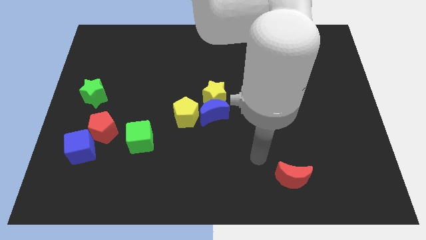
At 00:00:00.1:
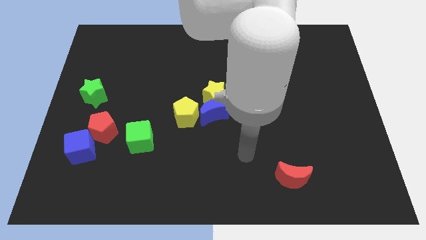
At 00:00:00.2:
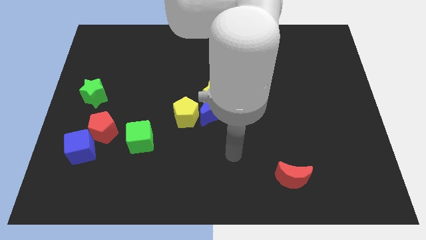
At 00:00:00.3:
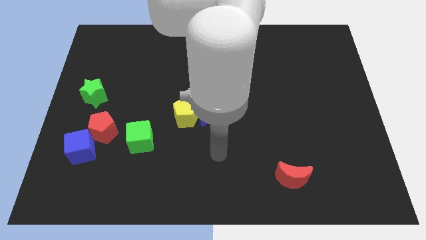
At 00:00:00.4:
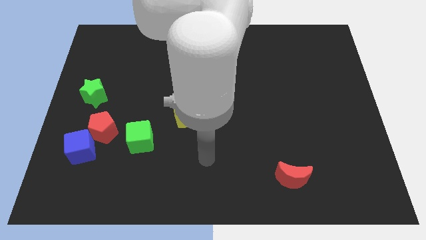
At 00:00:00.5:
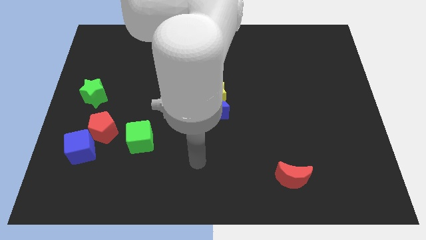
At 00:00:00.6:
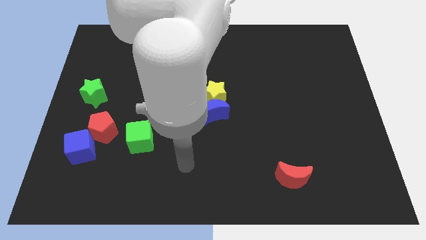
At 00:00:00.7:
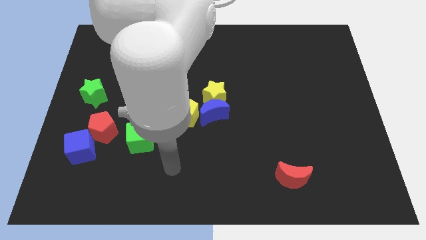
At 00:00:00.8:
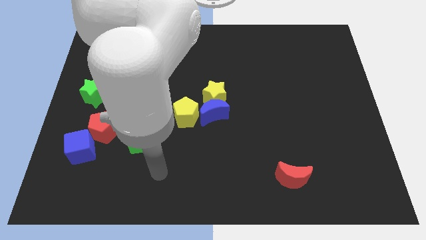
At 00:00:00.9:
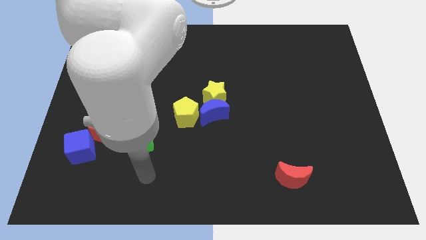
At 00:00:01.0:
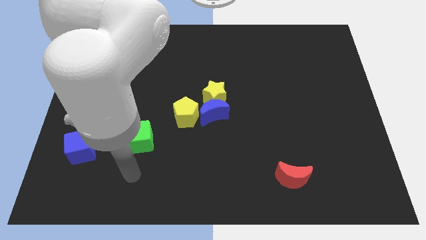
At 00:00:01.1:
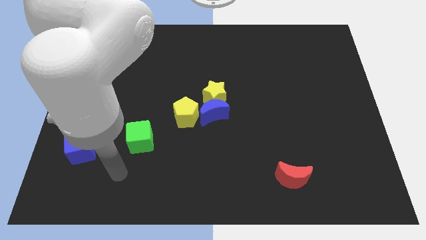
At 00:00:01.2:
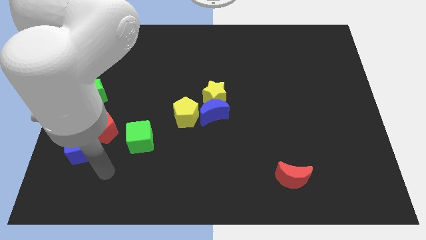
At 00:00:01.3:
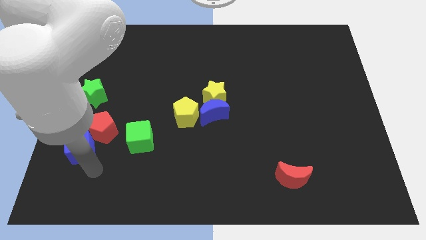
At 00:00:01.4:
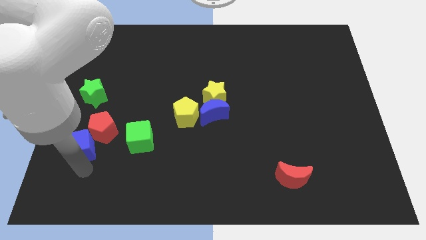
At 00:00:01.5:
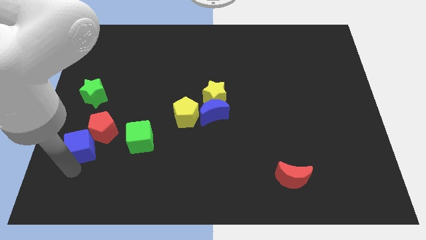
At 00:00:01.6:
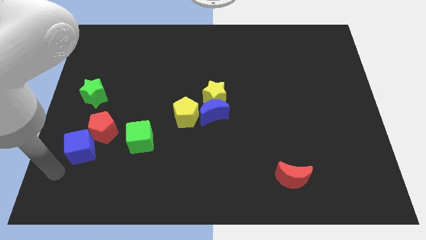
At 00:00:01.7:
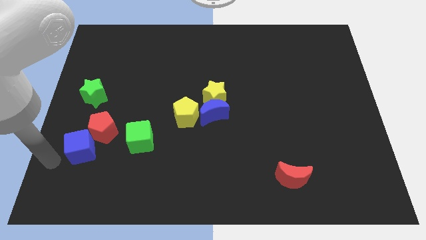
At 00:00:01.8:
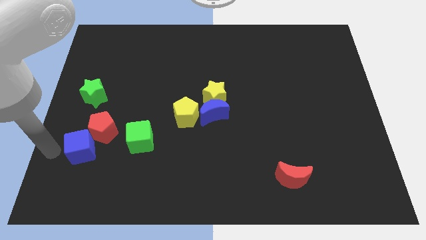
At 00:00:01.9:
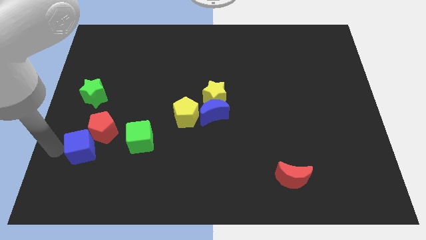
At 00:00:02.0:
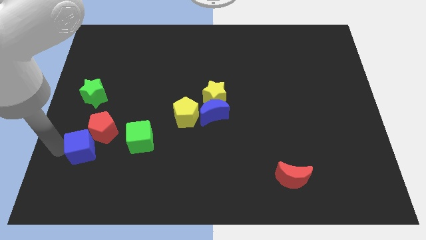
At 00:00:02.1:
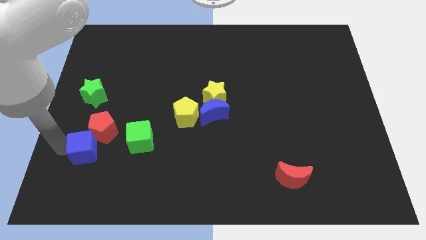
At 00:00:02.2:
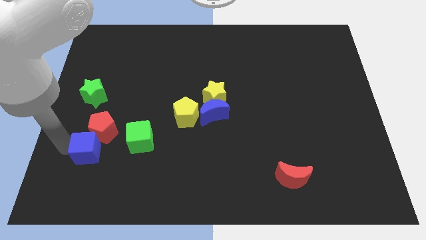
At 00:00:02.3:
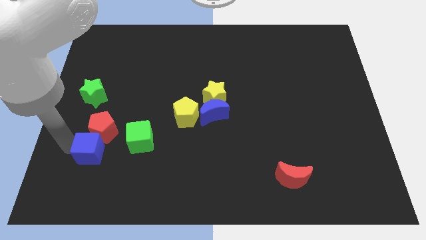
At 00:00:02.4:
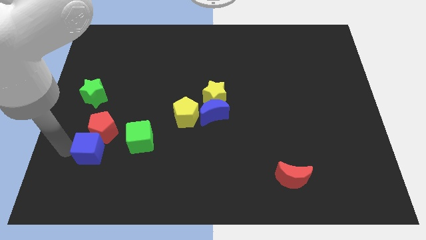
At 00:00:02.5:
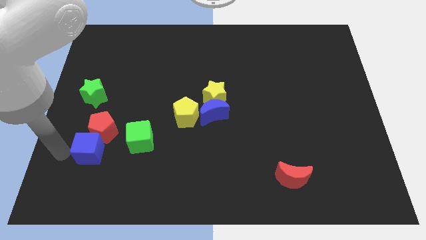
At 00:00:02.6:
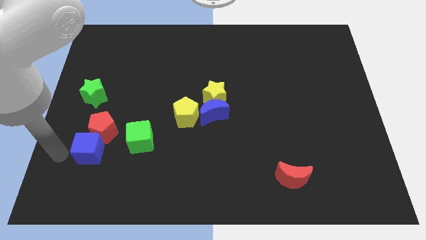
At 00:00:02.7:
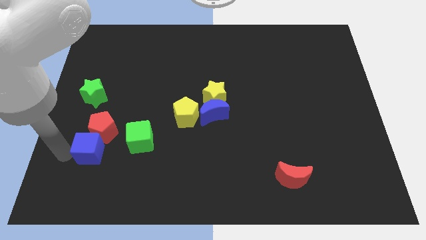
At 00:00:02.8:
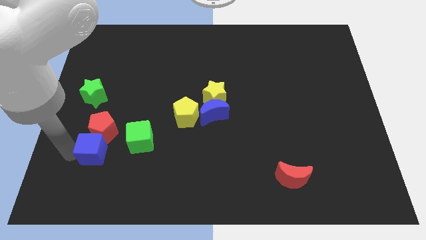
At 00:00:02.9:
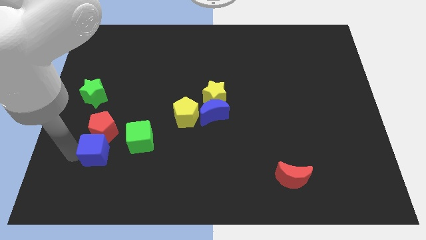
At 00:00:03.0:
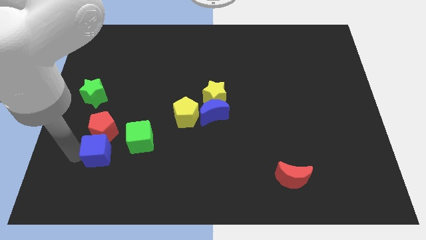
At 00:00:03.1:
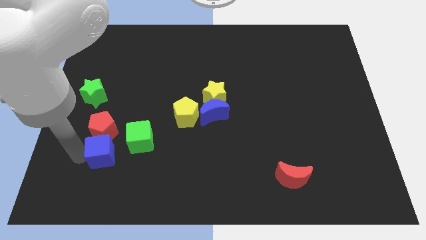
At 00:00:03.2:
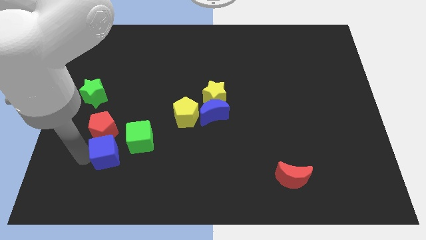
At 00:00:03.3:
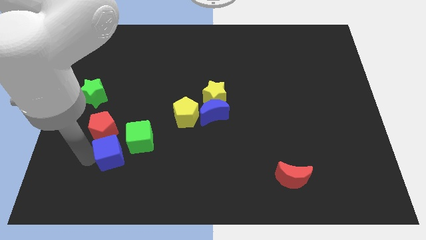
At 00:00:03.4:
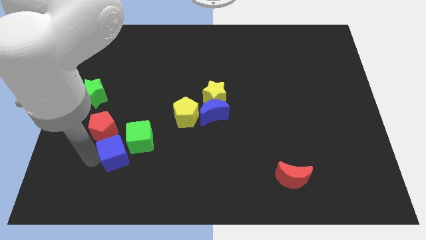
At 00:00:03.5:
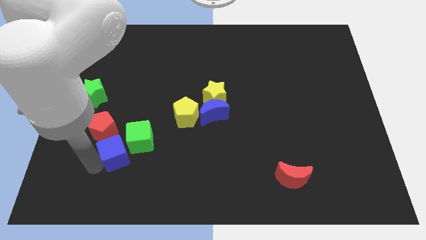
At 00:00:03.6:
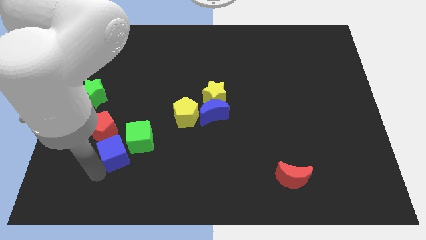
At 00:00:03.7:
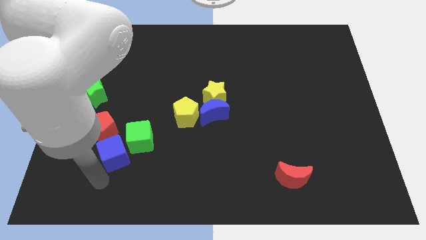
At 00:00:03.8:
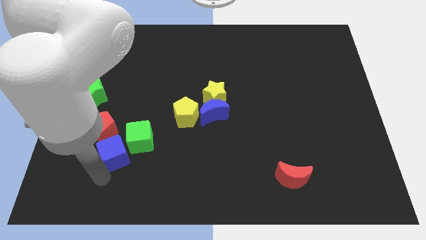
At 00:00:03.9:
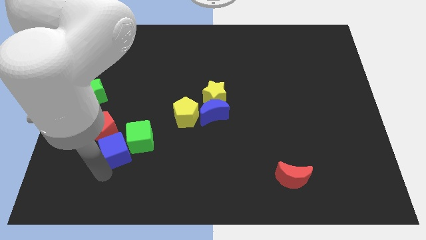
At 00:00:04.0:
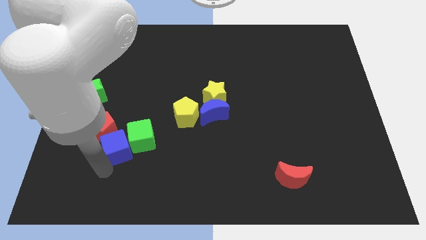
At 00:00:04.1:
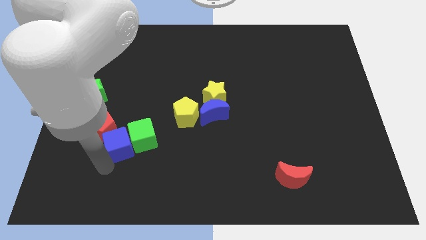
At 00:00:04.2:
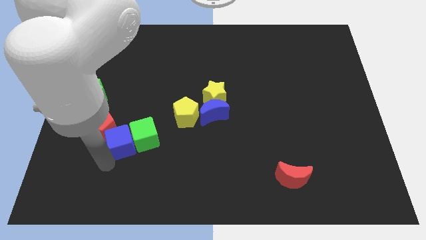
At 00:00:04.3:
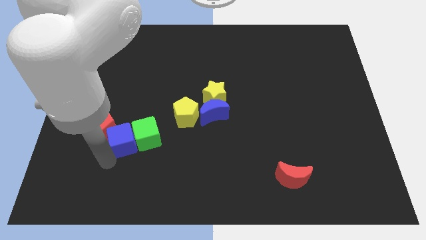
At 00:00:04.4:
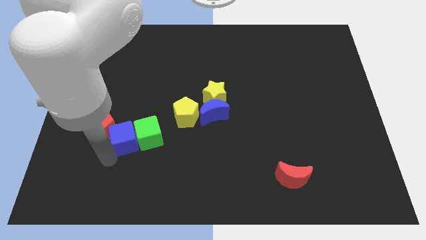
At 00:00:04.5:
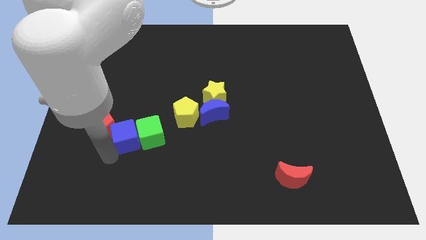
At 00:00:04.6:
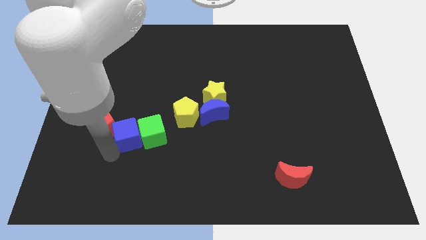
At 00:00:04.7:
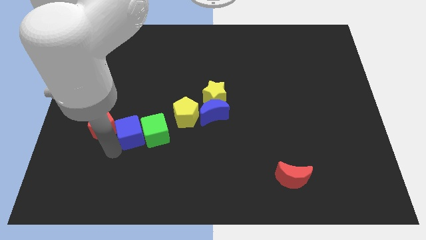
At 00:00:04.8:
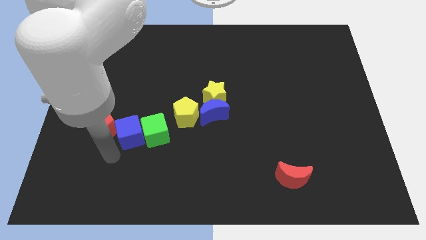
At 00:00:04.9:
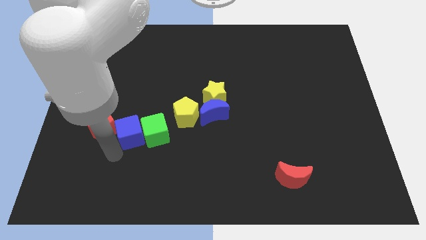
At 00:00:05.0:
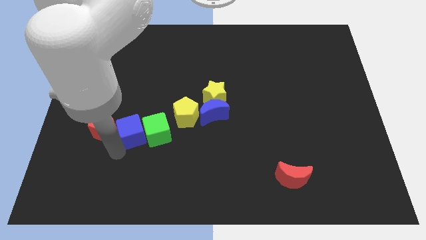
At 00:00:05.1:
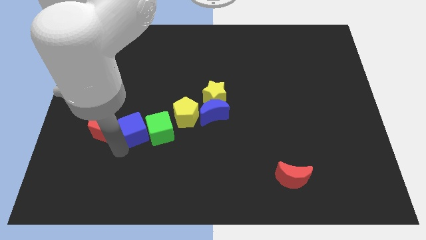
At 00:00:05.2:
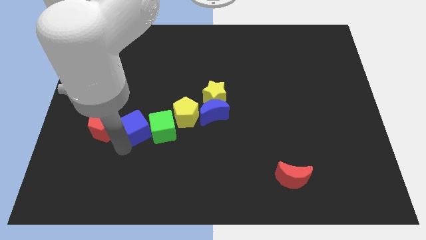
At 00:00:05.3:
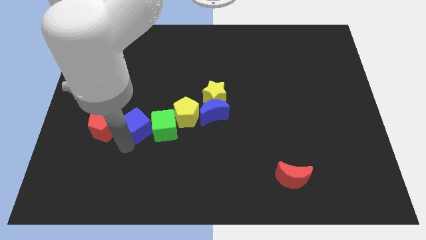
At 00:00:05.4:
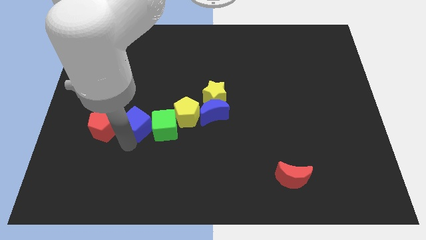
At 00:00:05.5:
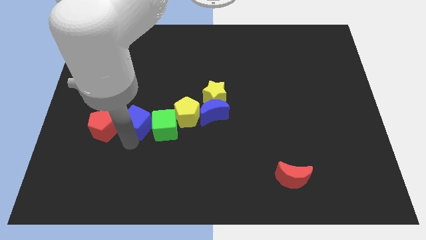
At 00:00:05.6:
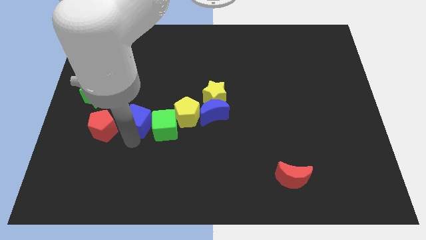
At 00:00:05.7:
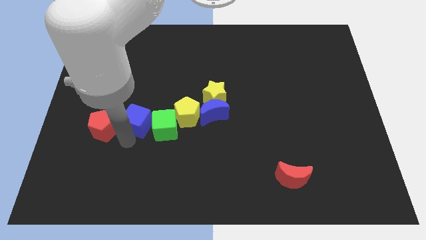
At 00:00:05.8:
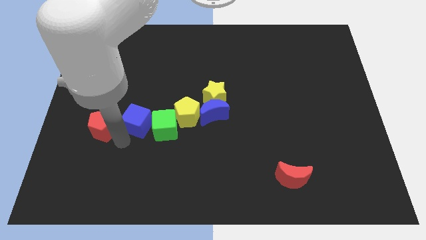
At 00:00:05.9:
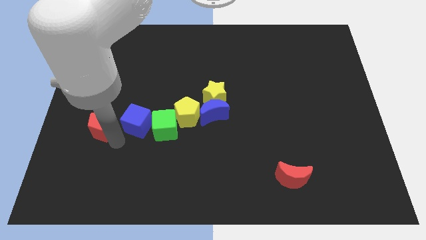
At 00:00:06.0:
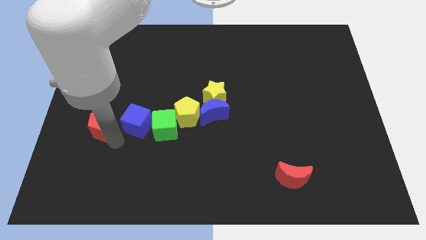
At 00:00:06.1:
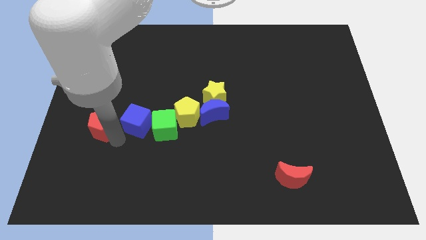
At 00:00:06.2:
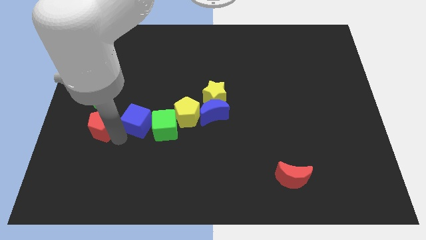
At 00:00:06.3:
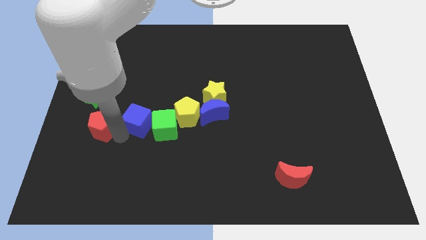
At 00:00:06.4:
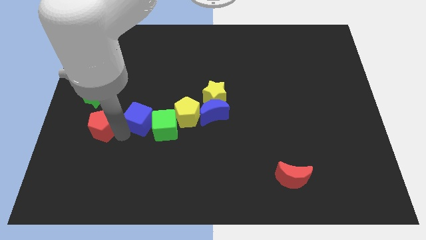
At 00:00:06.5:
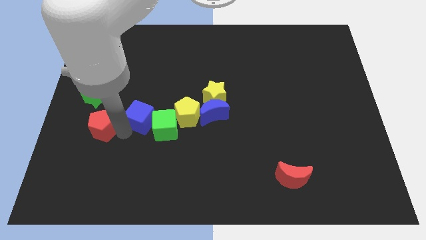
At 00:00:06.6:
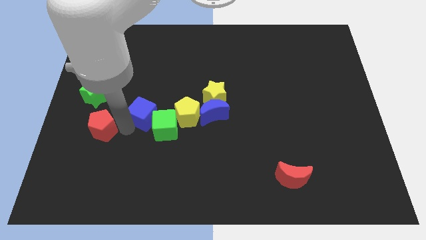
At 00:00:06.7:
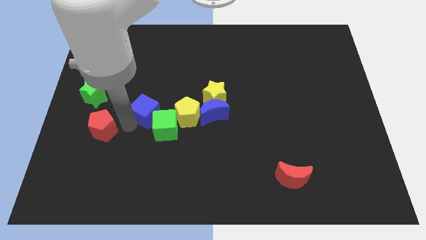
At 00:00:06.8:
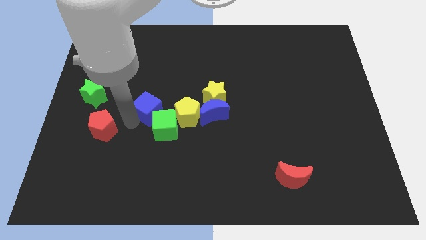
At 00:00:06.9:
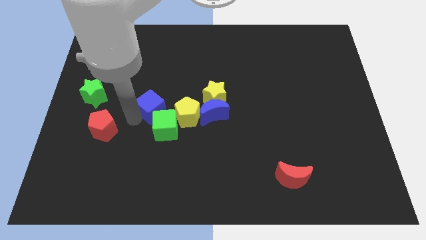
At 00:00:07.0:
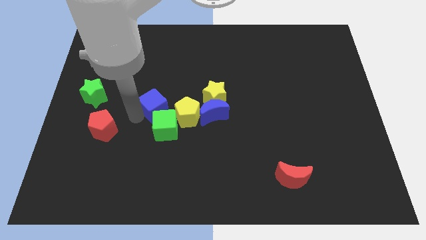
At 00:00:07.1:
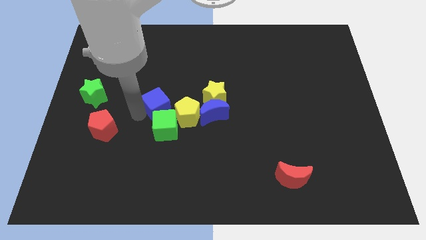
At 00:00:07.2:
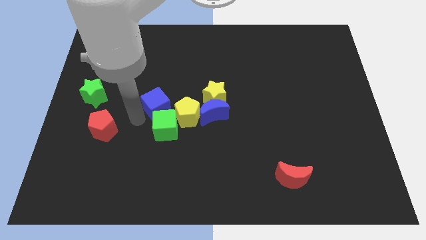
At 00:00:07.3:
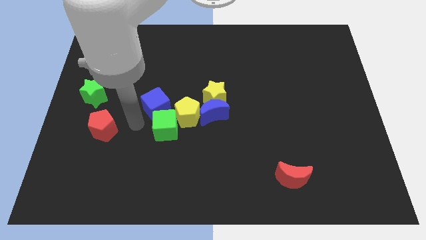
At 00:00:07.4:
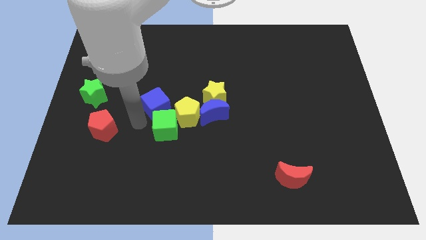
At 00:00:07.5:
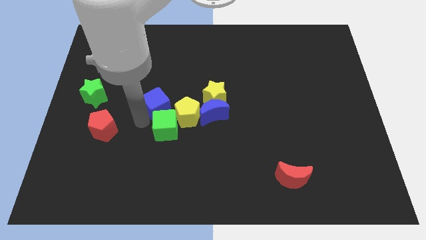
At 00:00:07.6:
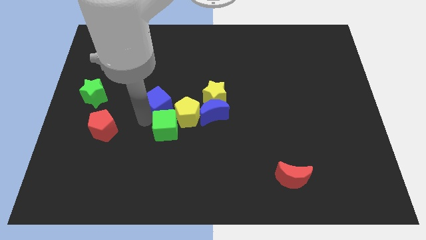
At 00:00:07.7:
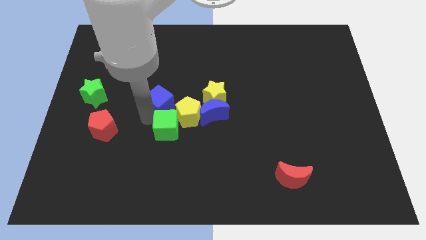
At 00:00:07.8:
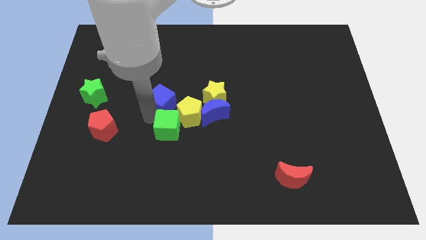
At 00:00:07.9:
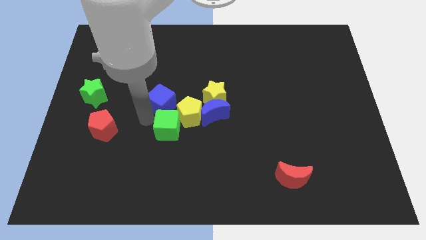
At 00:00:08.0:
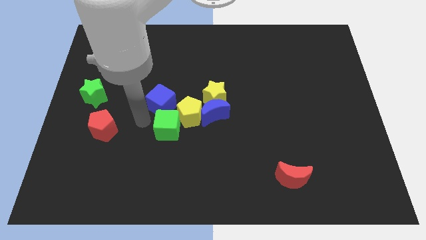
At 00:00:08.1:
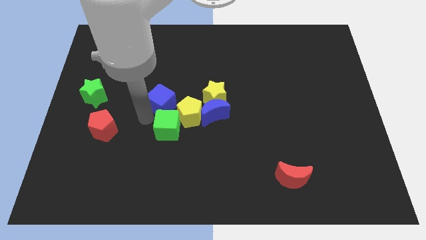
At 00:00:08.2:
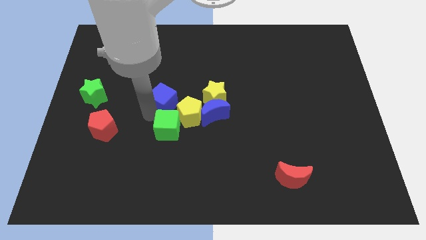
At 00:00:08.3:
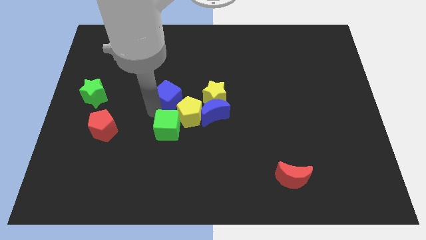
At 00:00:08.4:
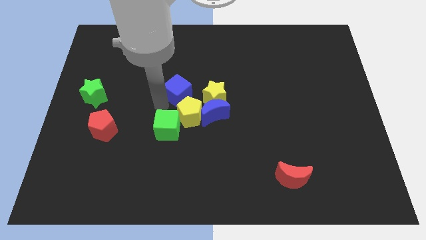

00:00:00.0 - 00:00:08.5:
put the blue cube above the yellow pentagon
